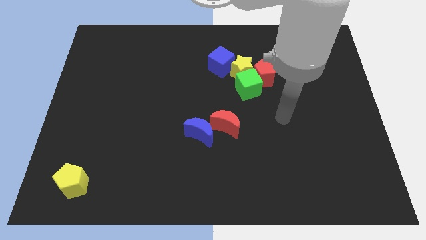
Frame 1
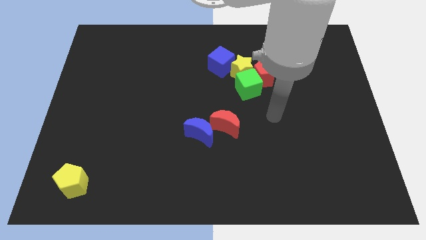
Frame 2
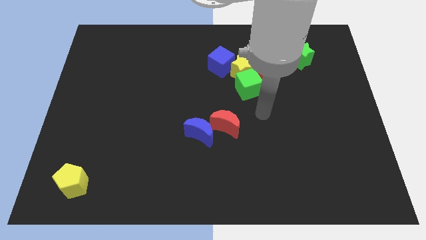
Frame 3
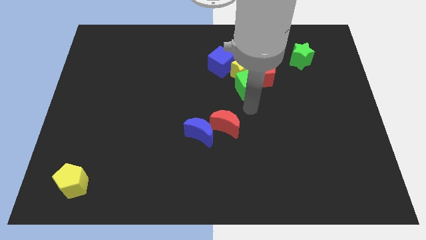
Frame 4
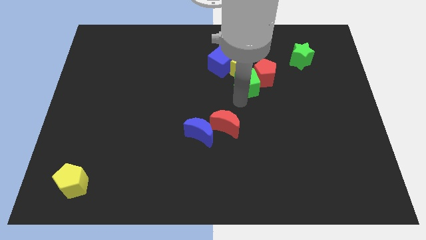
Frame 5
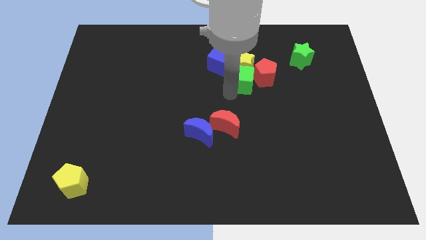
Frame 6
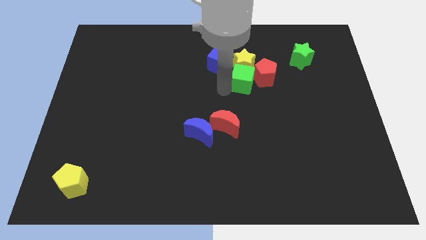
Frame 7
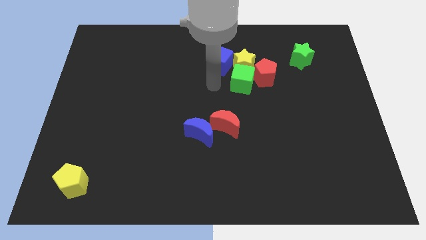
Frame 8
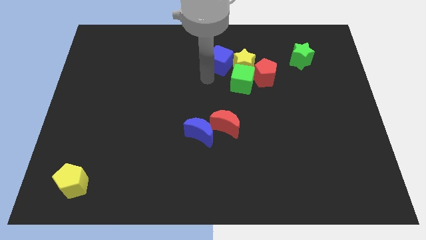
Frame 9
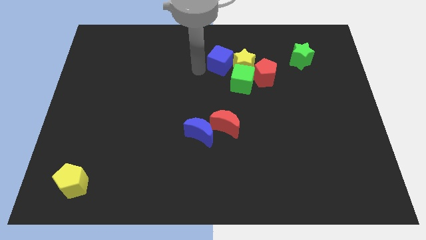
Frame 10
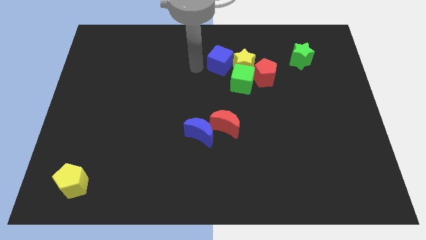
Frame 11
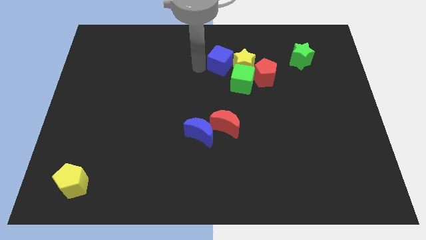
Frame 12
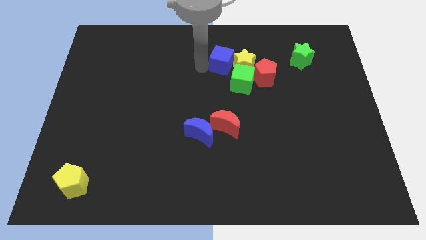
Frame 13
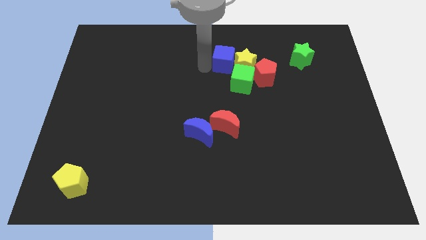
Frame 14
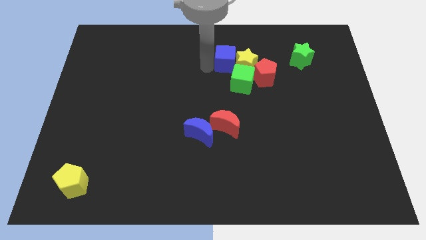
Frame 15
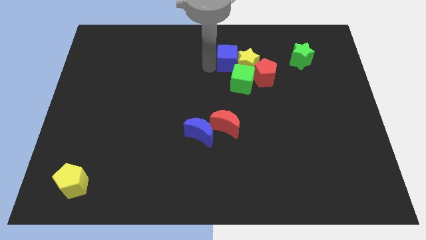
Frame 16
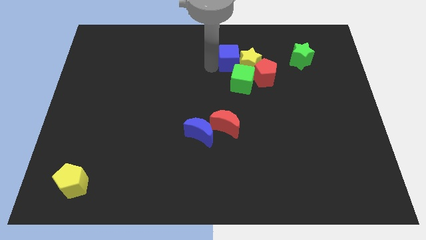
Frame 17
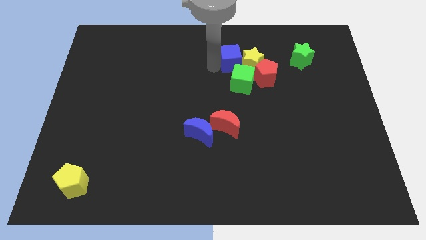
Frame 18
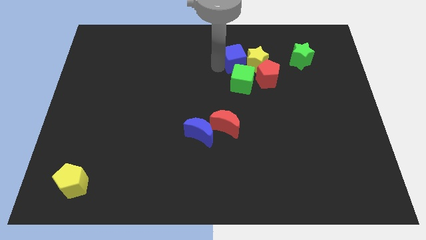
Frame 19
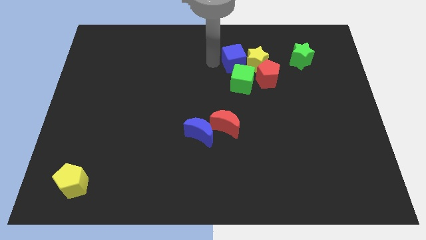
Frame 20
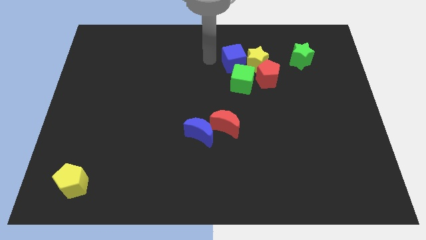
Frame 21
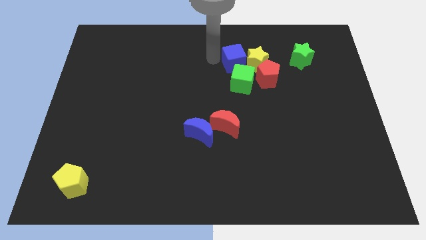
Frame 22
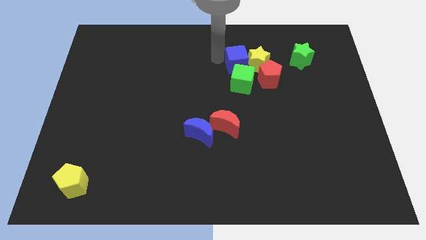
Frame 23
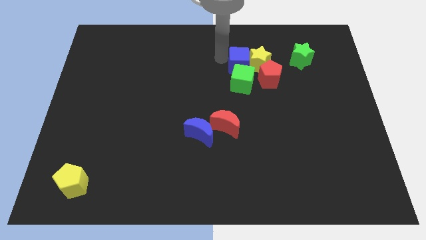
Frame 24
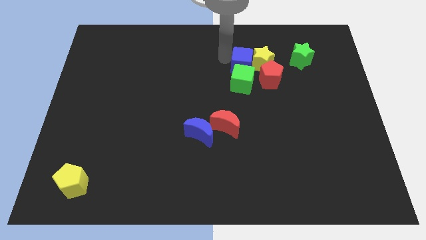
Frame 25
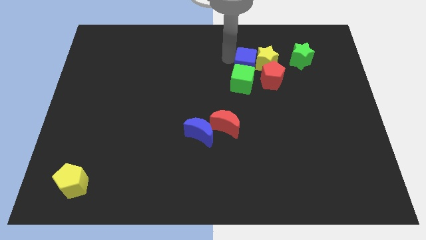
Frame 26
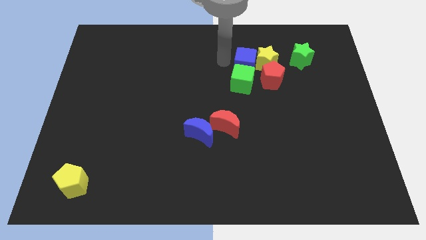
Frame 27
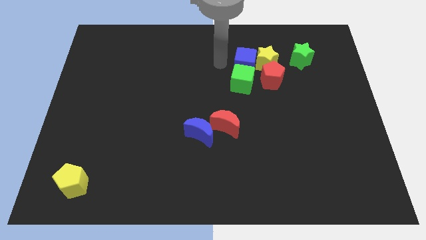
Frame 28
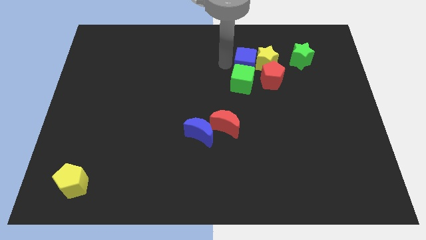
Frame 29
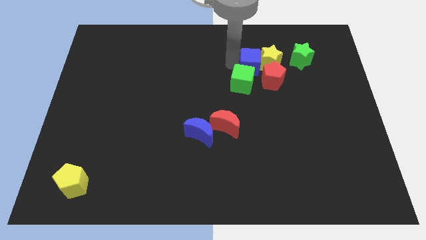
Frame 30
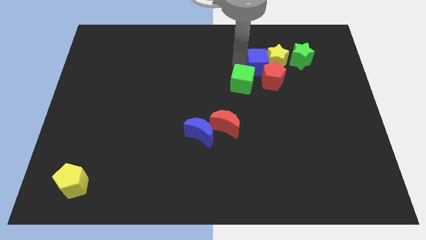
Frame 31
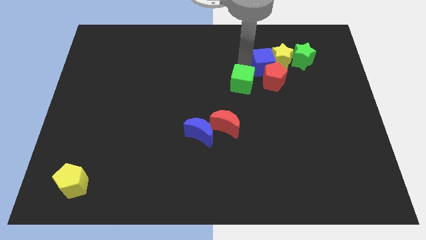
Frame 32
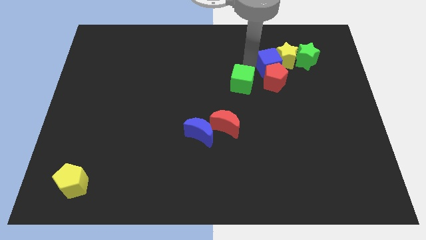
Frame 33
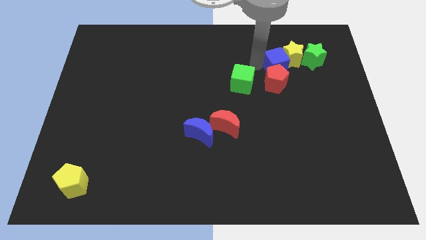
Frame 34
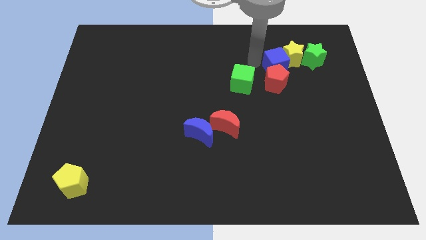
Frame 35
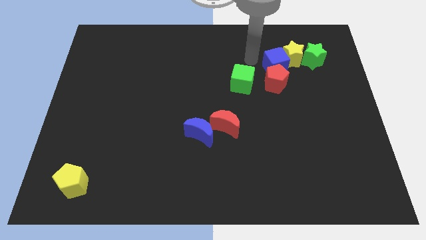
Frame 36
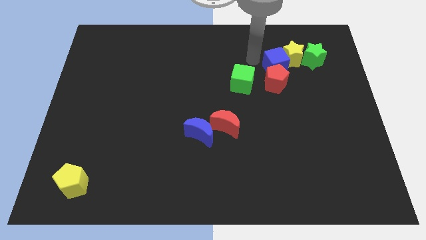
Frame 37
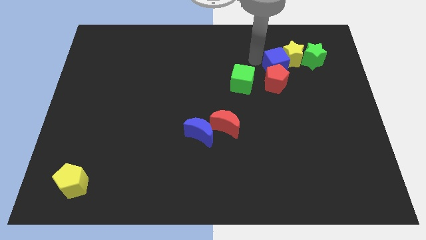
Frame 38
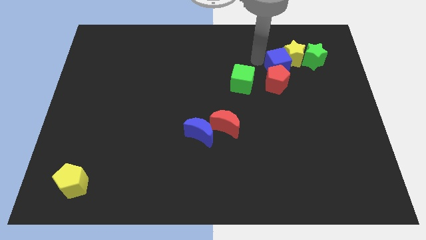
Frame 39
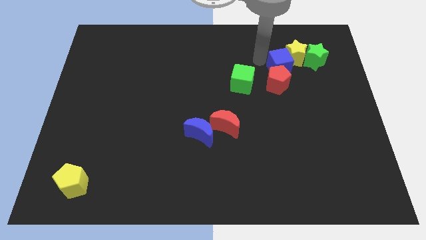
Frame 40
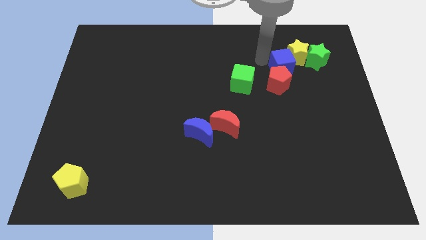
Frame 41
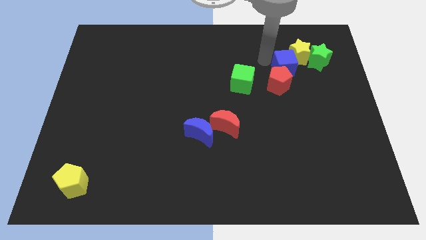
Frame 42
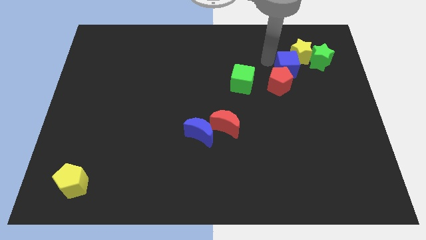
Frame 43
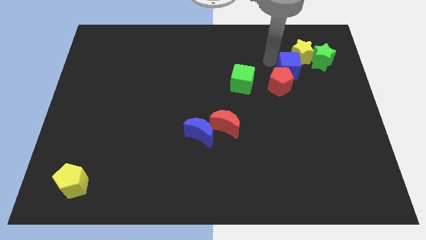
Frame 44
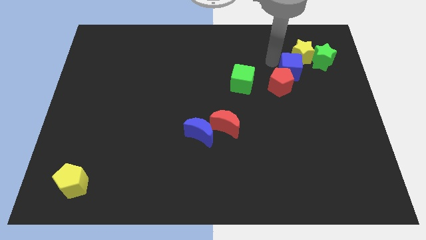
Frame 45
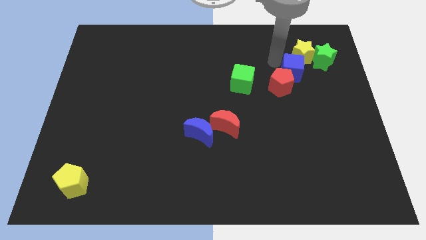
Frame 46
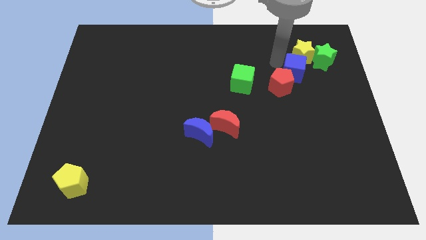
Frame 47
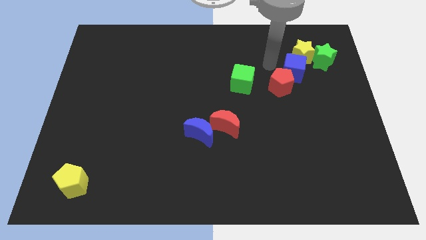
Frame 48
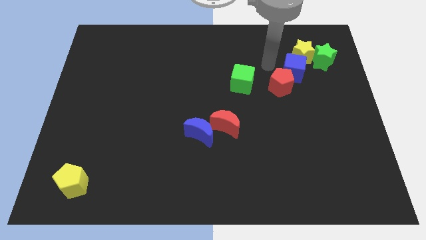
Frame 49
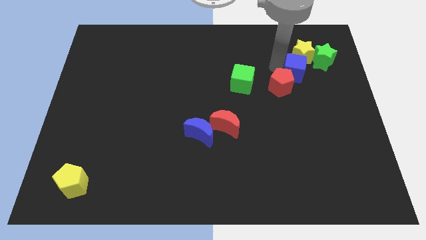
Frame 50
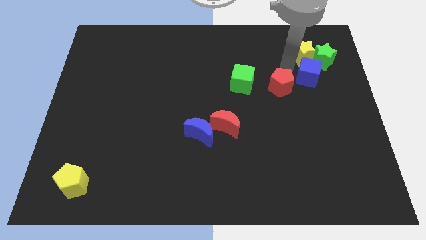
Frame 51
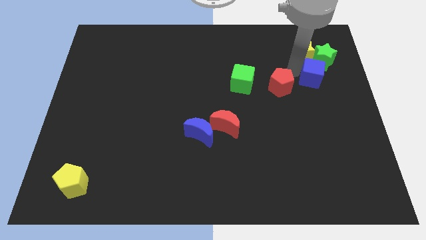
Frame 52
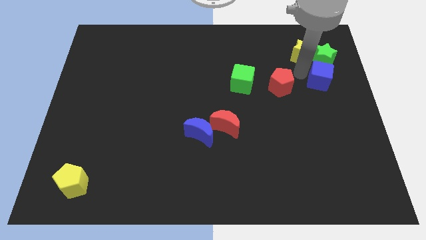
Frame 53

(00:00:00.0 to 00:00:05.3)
put the blue cube to the center right
